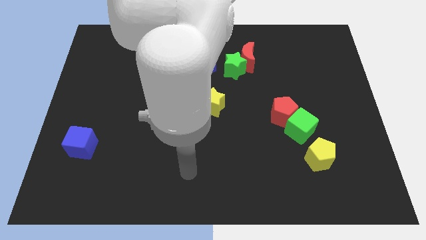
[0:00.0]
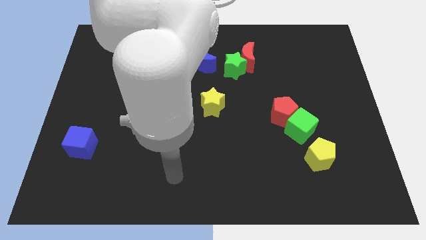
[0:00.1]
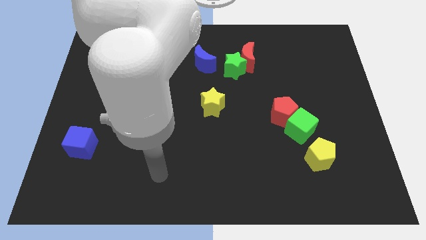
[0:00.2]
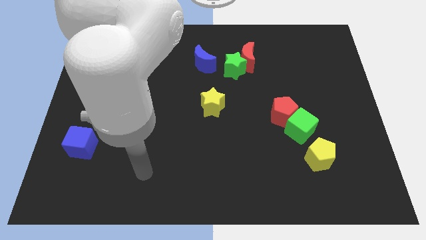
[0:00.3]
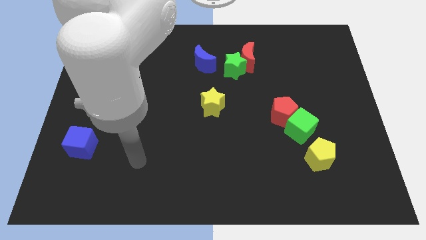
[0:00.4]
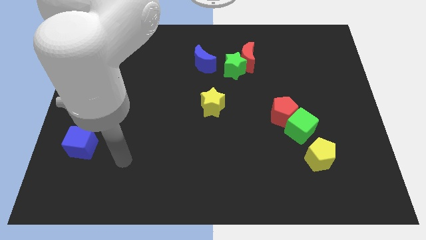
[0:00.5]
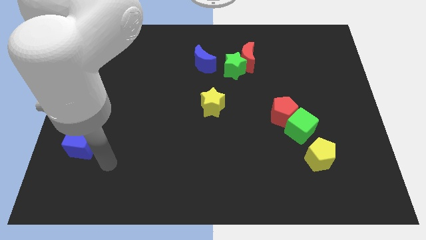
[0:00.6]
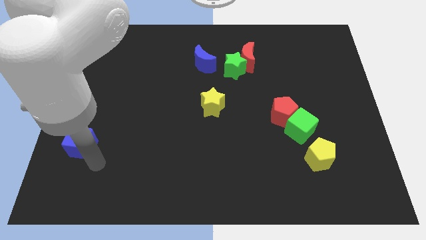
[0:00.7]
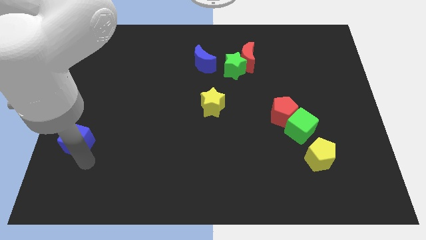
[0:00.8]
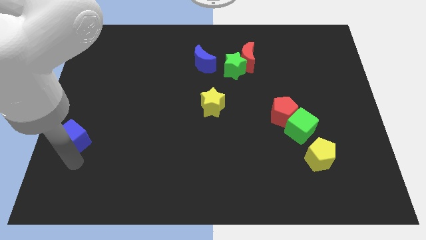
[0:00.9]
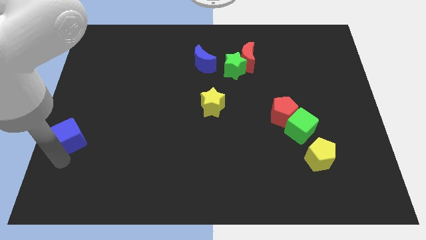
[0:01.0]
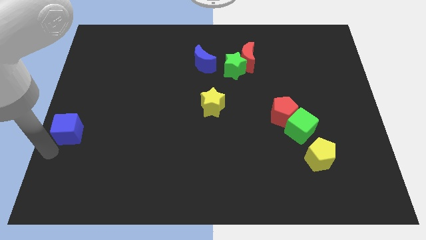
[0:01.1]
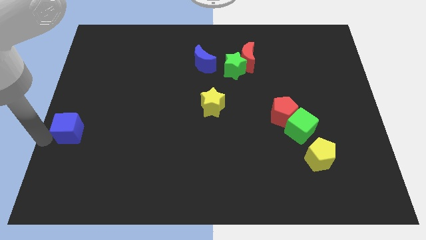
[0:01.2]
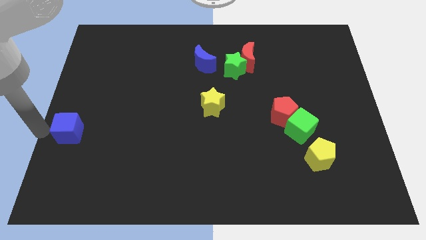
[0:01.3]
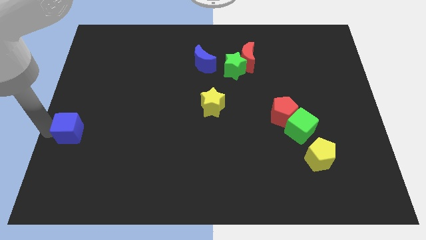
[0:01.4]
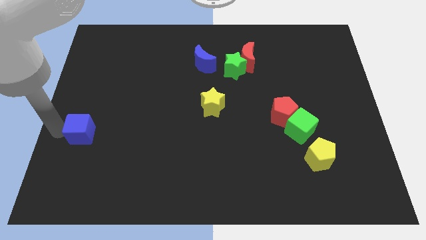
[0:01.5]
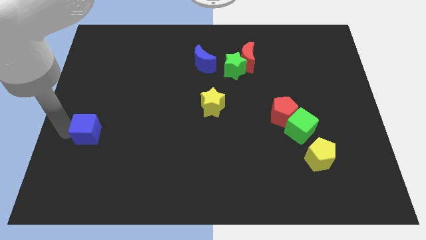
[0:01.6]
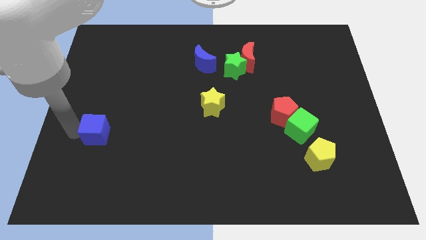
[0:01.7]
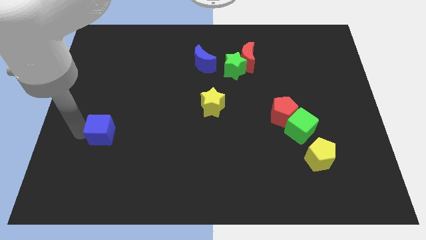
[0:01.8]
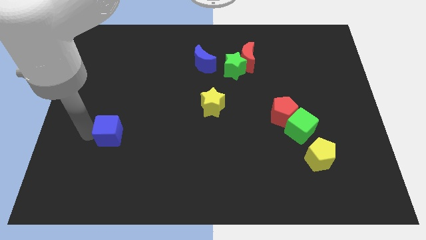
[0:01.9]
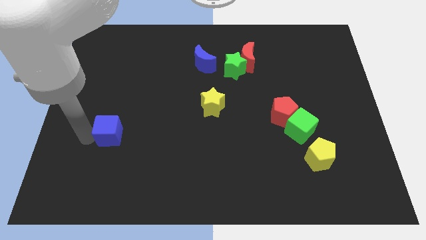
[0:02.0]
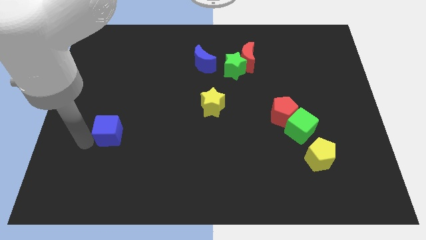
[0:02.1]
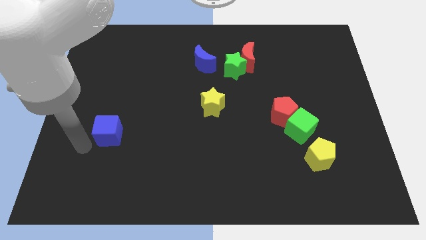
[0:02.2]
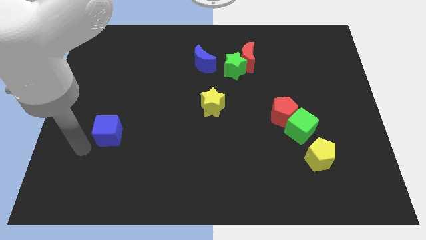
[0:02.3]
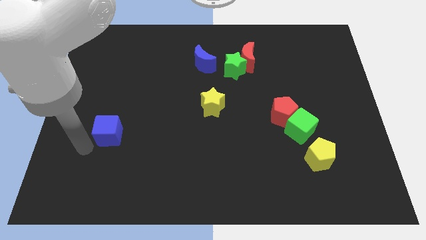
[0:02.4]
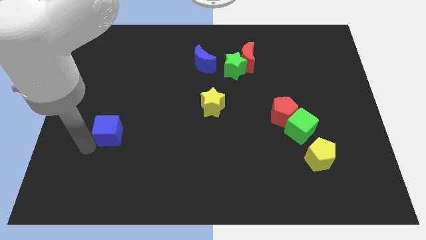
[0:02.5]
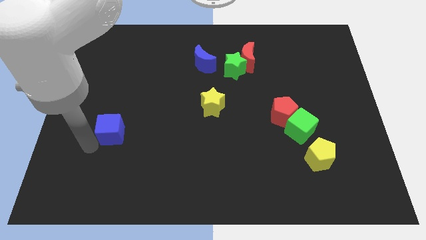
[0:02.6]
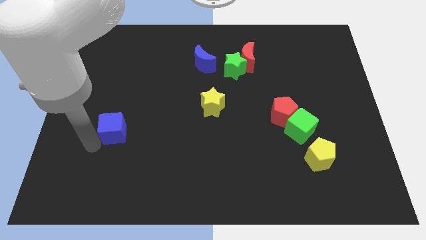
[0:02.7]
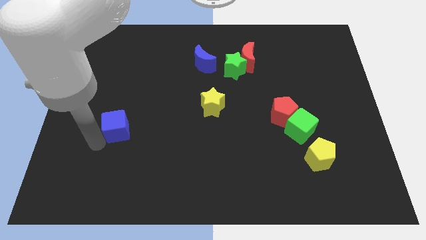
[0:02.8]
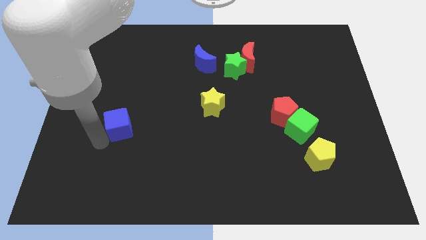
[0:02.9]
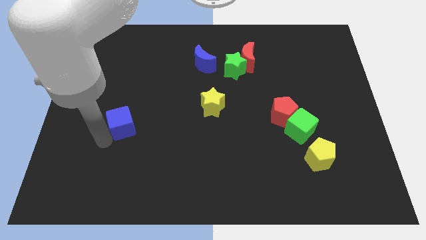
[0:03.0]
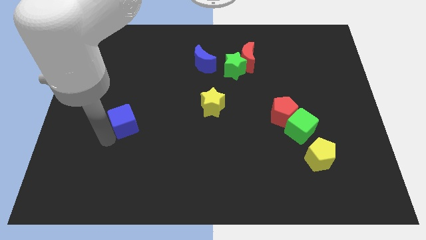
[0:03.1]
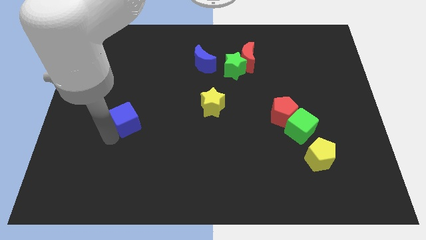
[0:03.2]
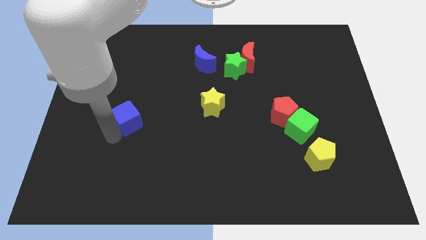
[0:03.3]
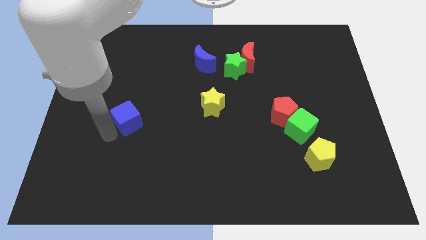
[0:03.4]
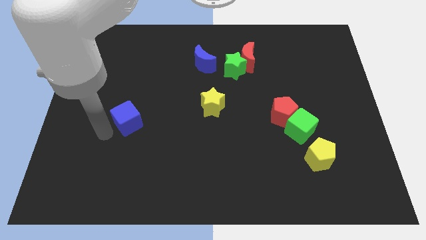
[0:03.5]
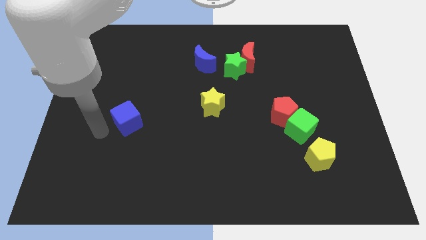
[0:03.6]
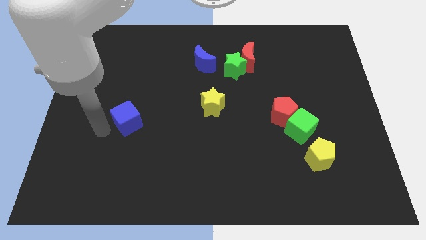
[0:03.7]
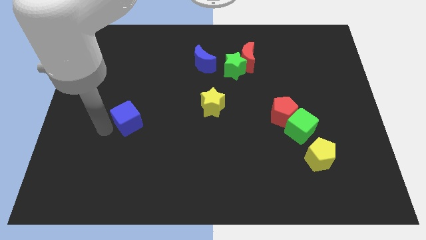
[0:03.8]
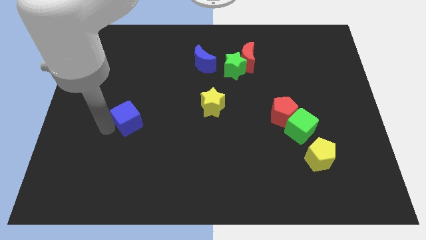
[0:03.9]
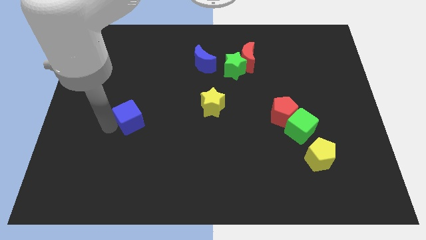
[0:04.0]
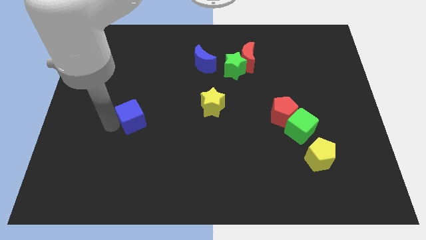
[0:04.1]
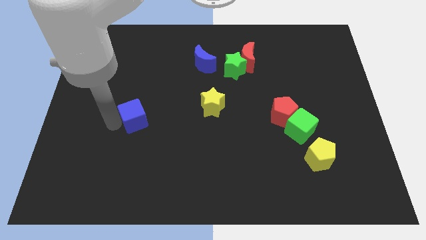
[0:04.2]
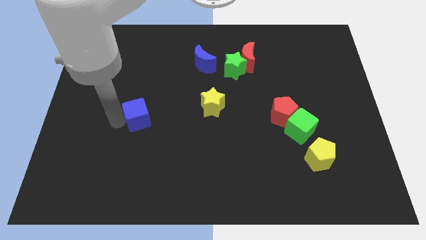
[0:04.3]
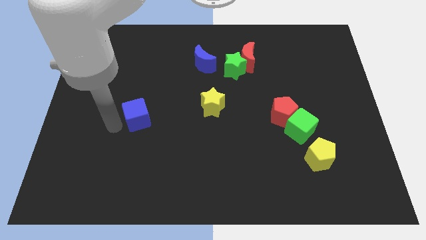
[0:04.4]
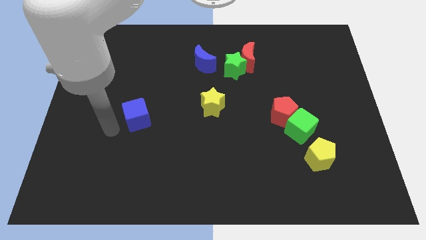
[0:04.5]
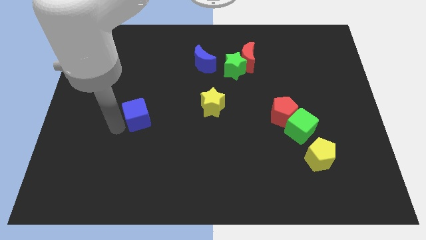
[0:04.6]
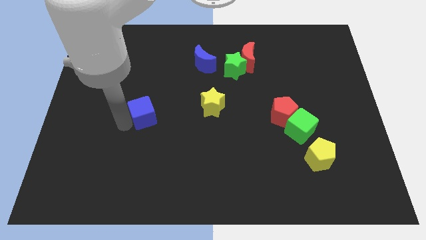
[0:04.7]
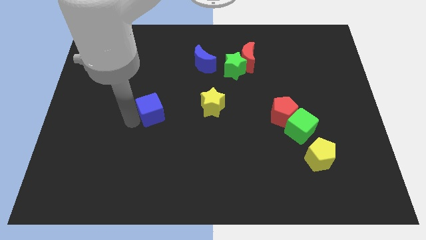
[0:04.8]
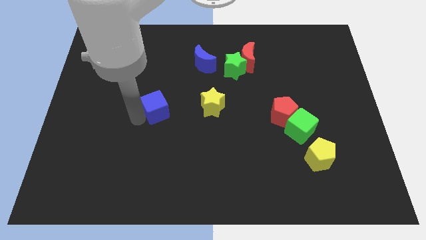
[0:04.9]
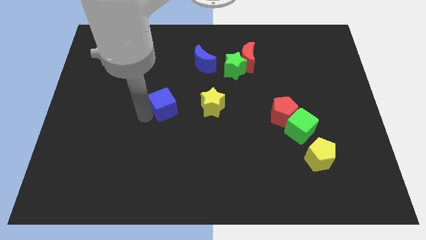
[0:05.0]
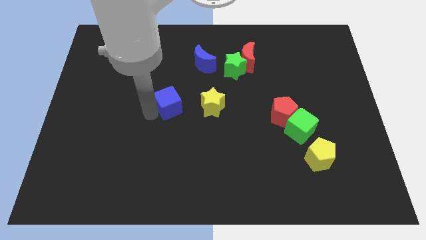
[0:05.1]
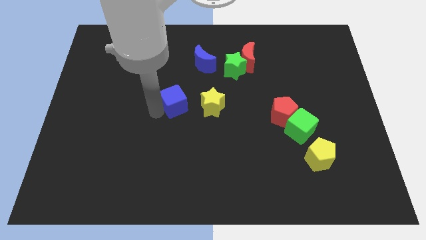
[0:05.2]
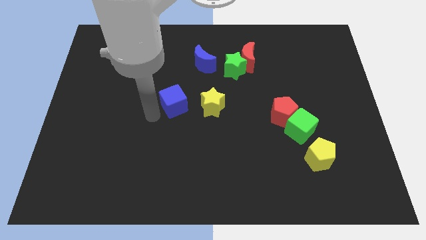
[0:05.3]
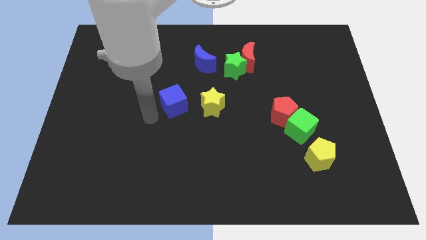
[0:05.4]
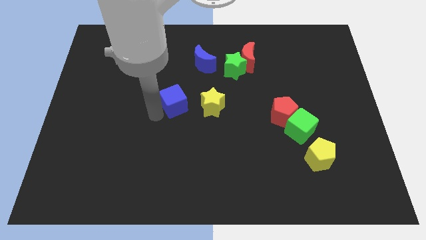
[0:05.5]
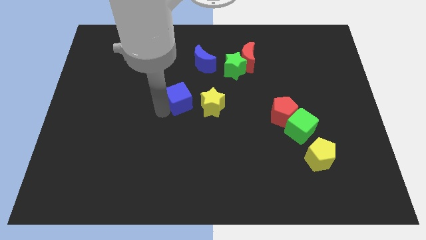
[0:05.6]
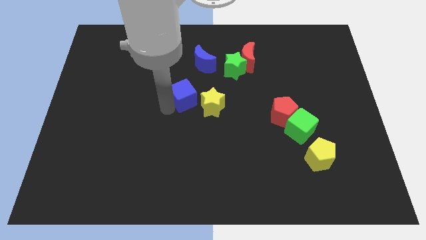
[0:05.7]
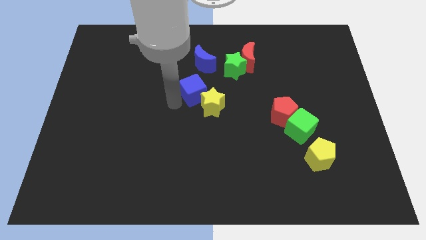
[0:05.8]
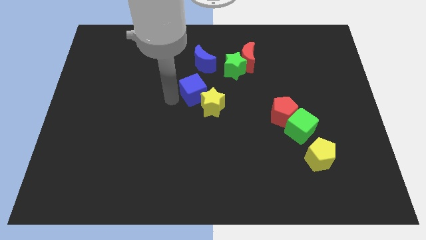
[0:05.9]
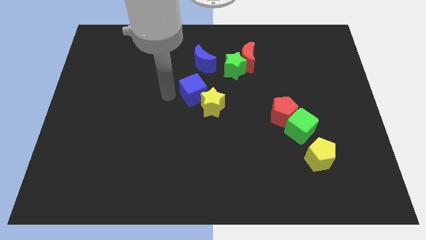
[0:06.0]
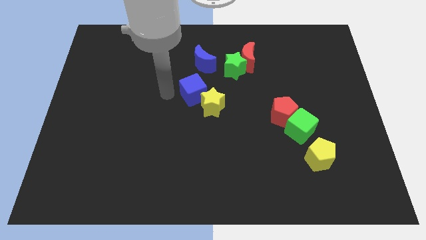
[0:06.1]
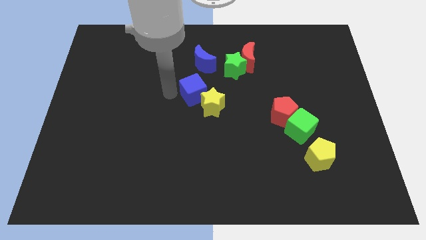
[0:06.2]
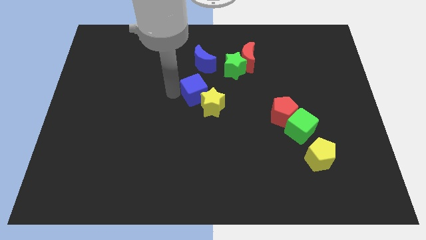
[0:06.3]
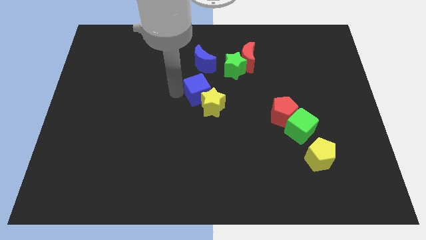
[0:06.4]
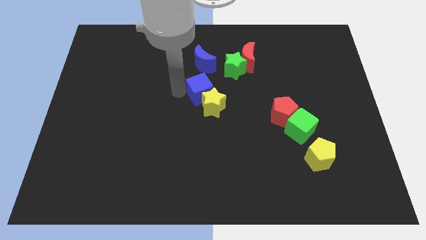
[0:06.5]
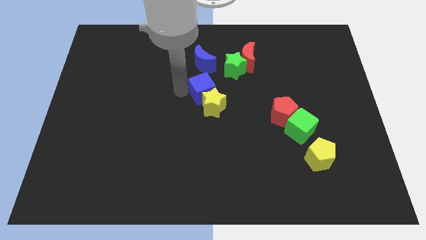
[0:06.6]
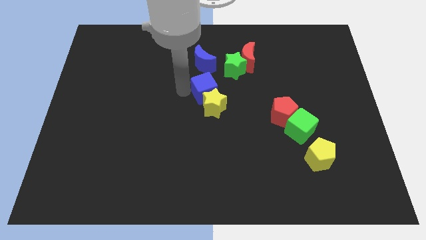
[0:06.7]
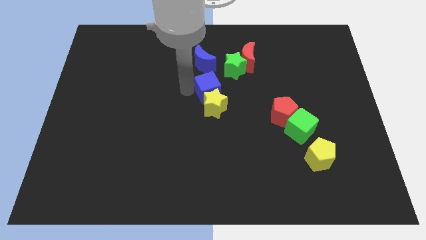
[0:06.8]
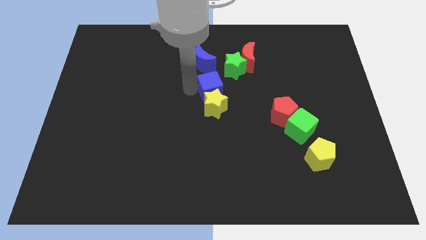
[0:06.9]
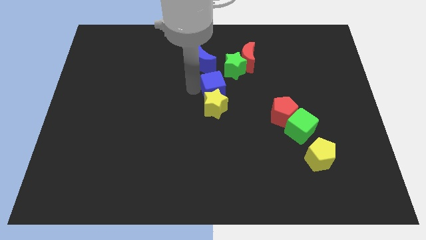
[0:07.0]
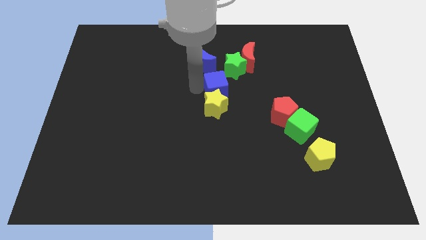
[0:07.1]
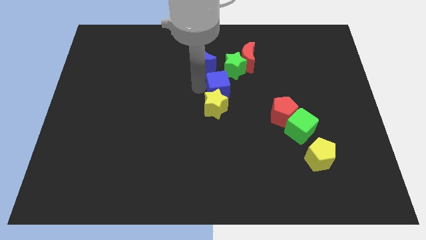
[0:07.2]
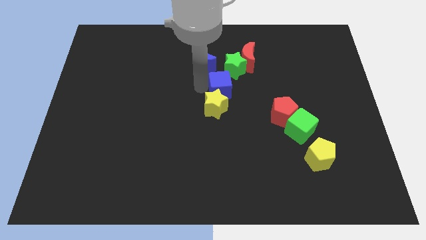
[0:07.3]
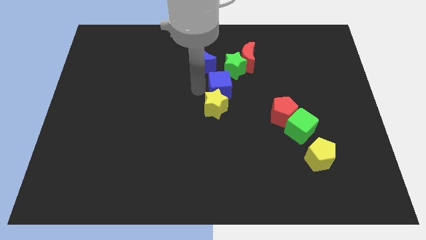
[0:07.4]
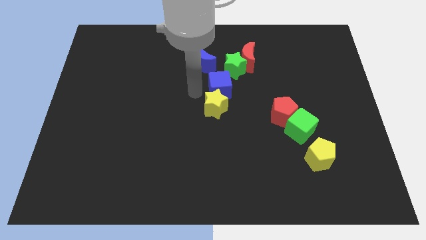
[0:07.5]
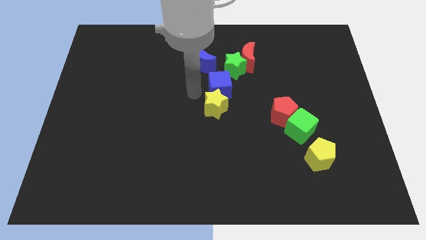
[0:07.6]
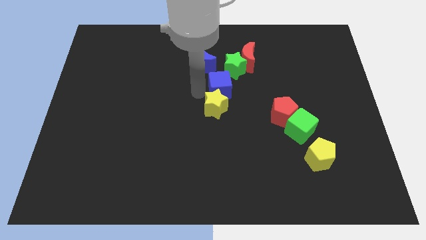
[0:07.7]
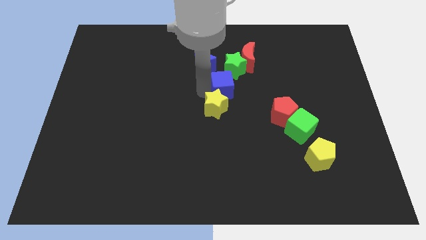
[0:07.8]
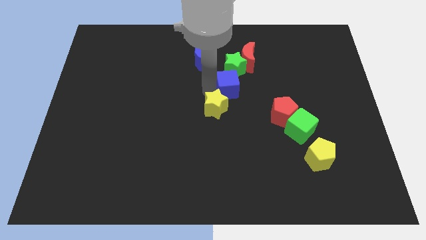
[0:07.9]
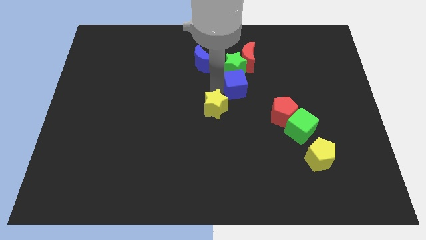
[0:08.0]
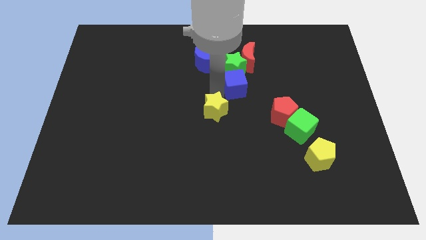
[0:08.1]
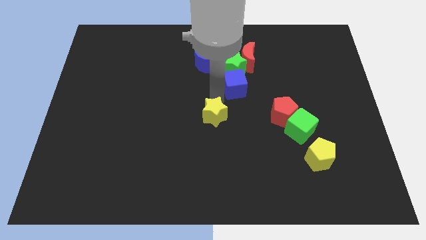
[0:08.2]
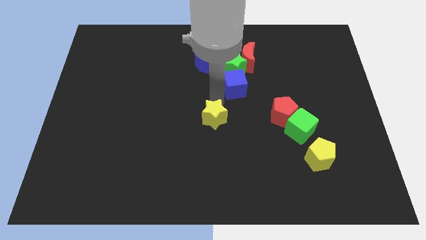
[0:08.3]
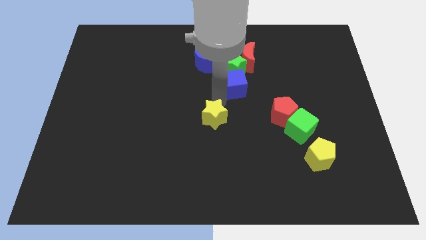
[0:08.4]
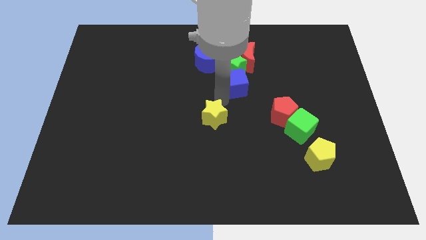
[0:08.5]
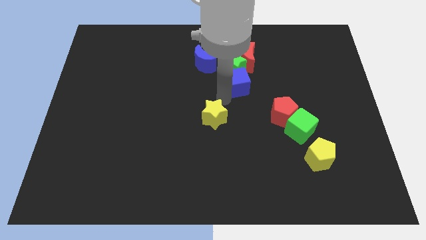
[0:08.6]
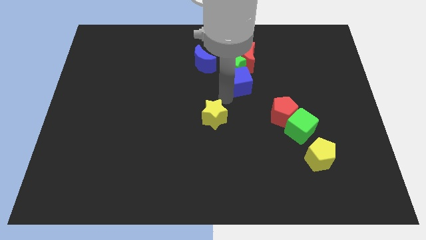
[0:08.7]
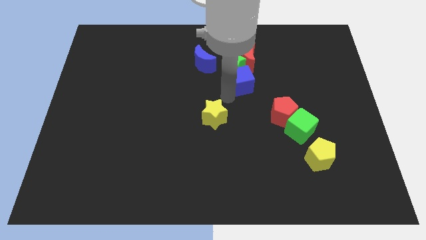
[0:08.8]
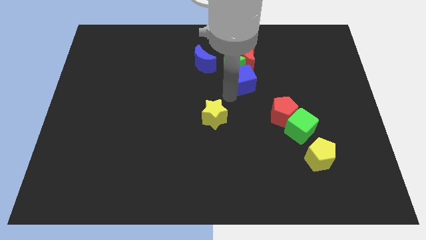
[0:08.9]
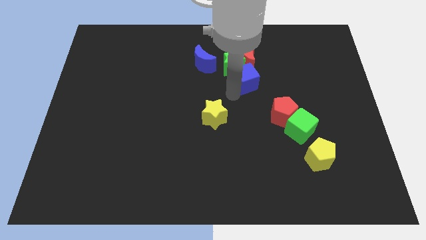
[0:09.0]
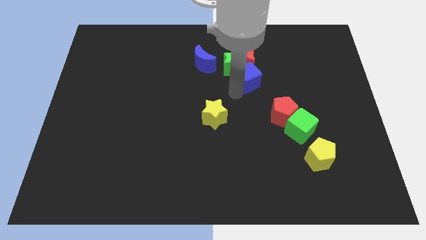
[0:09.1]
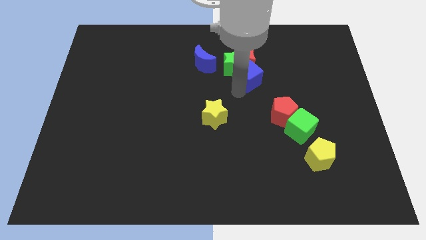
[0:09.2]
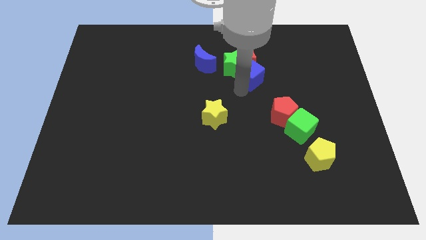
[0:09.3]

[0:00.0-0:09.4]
put the blue cube right of the blue moon
